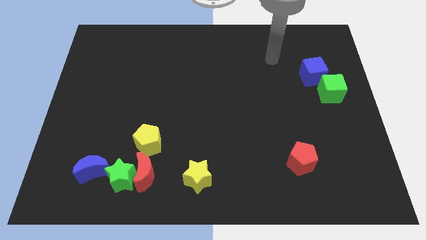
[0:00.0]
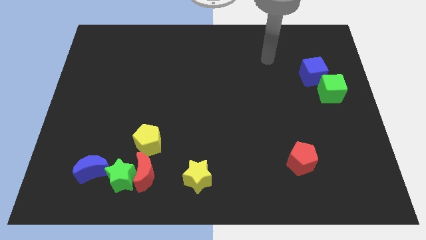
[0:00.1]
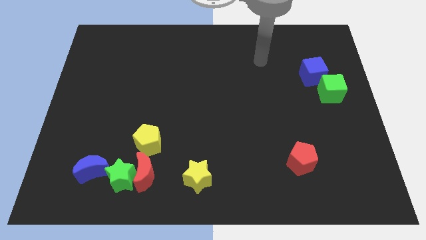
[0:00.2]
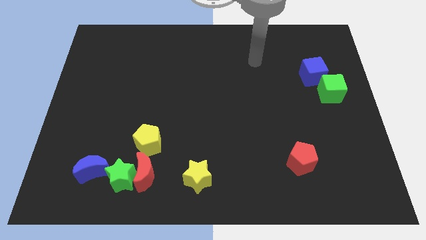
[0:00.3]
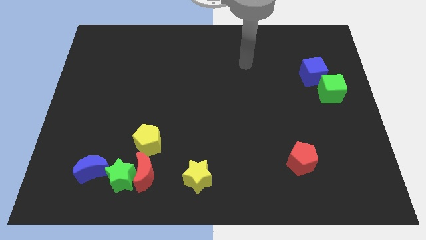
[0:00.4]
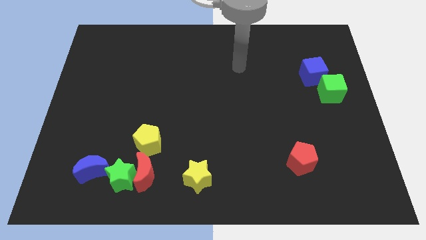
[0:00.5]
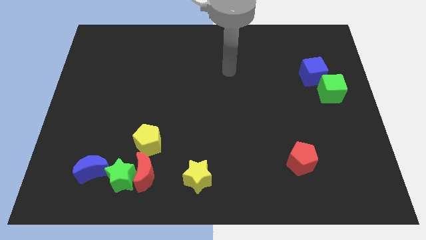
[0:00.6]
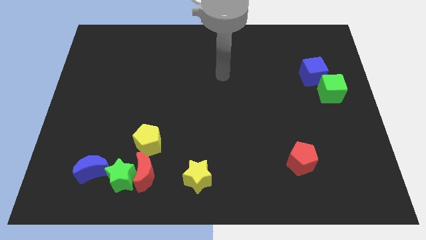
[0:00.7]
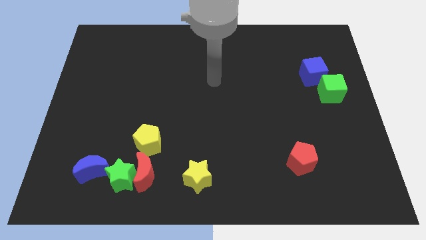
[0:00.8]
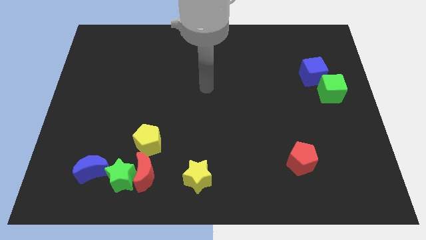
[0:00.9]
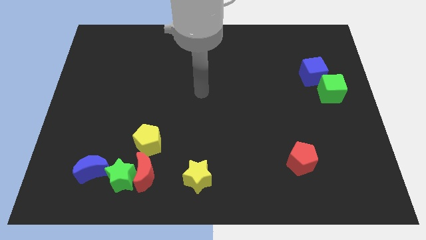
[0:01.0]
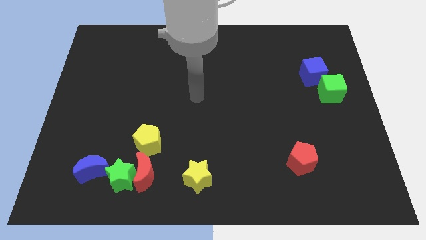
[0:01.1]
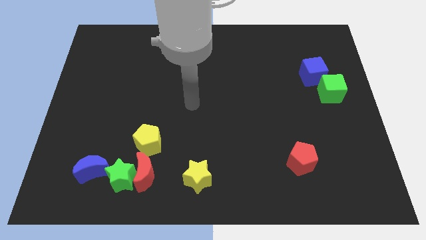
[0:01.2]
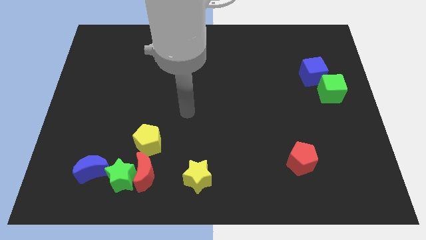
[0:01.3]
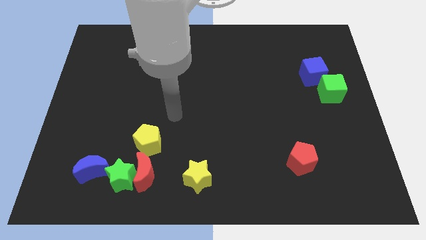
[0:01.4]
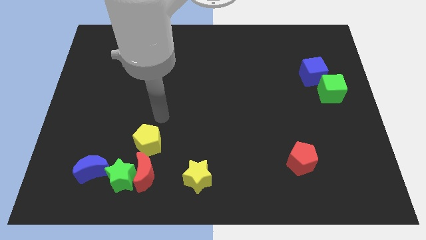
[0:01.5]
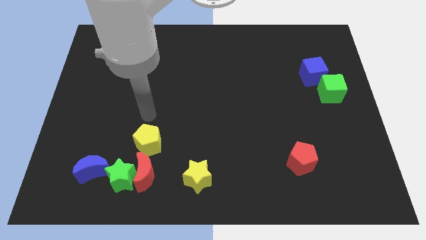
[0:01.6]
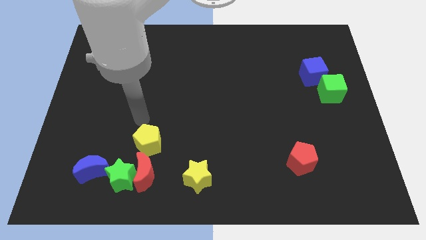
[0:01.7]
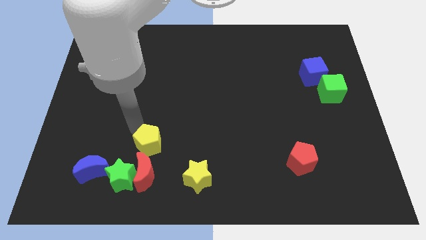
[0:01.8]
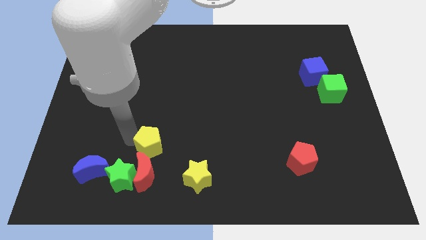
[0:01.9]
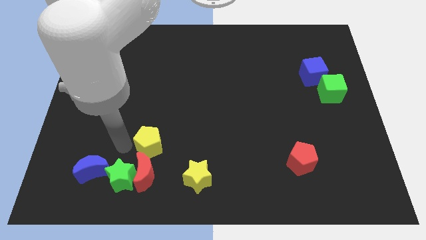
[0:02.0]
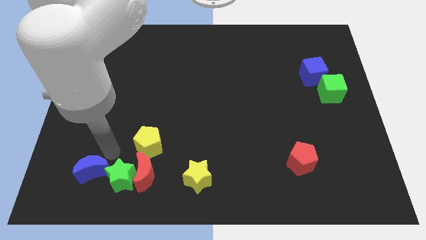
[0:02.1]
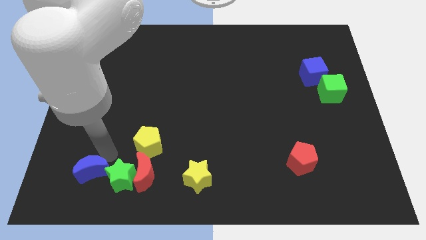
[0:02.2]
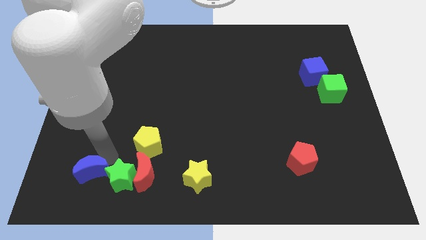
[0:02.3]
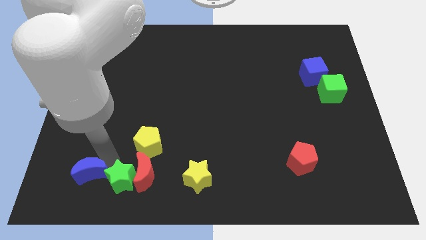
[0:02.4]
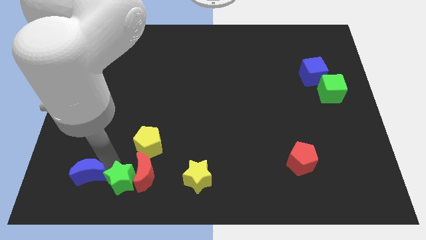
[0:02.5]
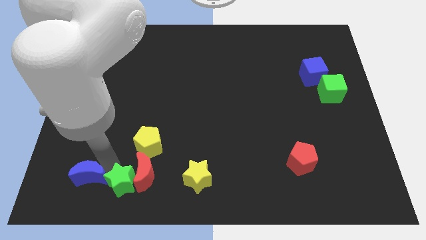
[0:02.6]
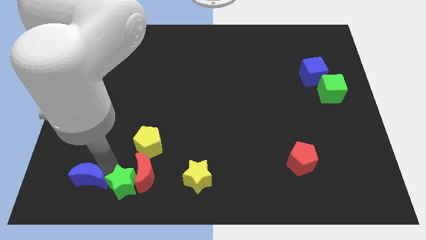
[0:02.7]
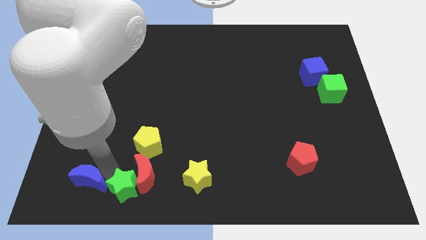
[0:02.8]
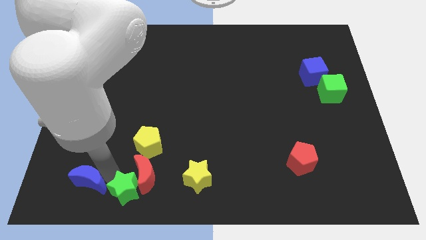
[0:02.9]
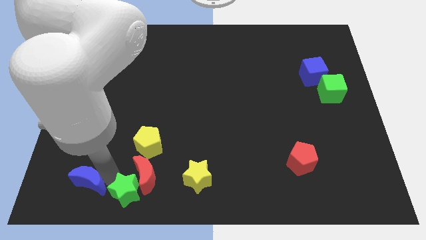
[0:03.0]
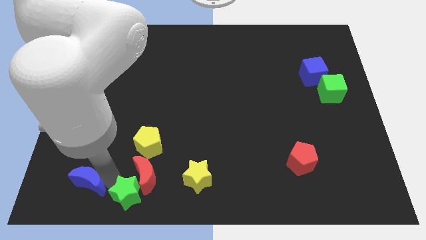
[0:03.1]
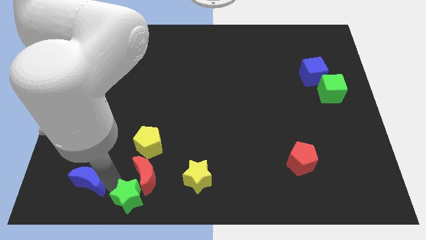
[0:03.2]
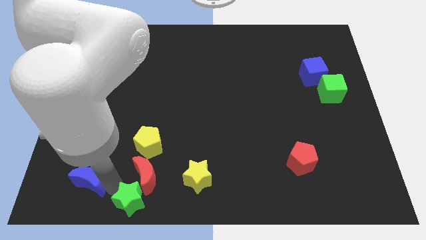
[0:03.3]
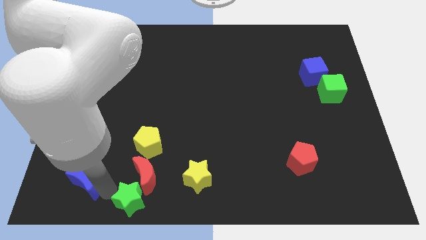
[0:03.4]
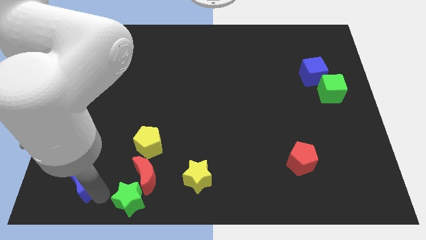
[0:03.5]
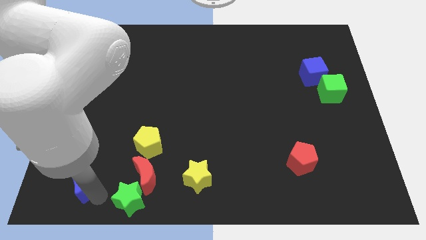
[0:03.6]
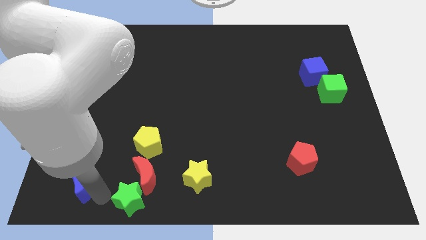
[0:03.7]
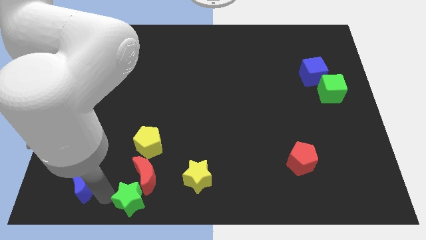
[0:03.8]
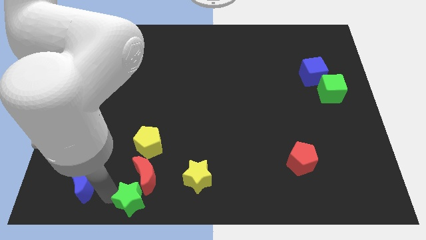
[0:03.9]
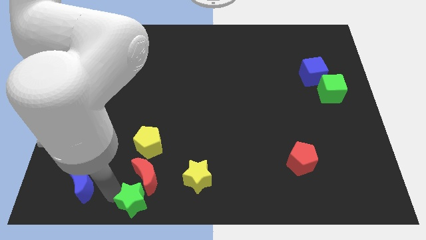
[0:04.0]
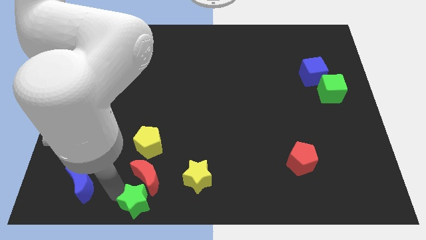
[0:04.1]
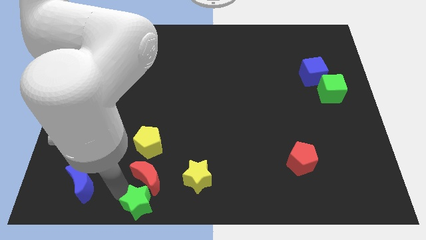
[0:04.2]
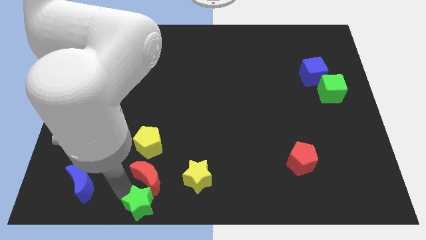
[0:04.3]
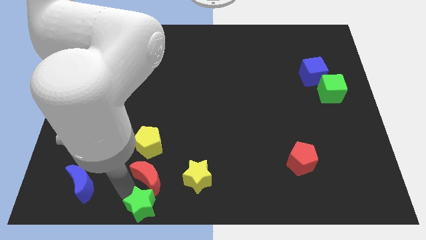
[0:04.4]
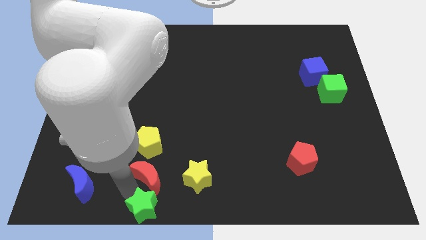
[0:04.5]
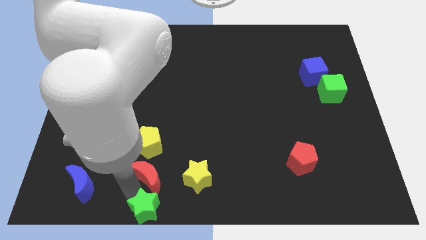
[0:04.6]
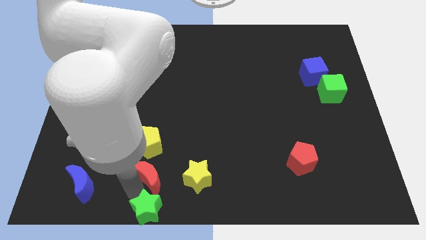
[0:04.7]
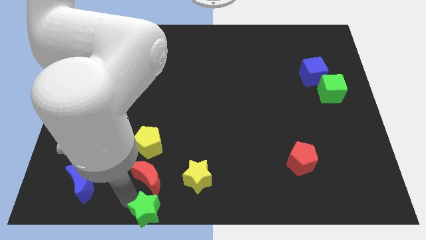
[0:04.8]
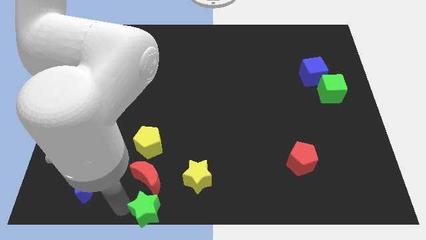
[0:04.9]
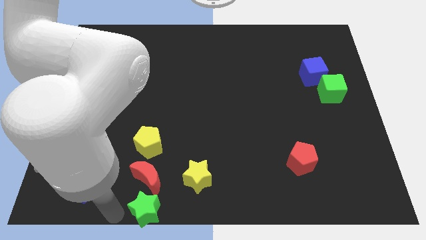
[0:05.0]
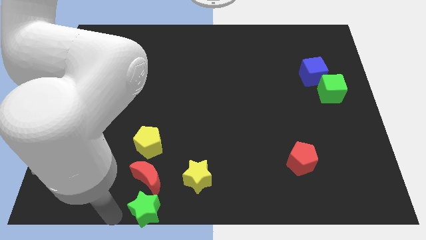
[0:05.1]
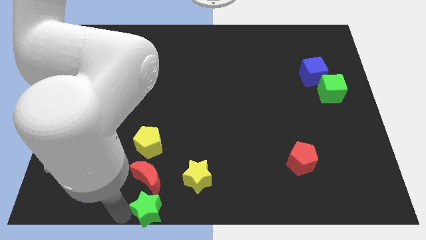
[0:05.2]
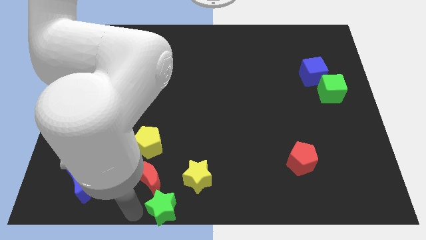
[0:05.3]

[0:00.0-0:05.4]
slide the green star right a little

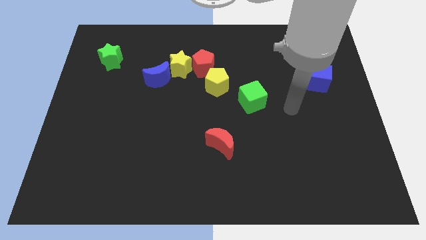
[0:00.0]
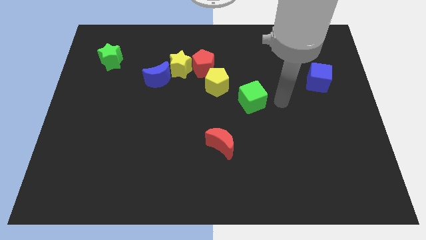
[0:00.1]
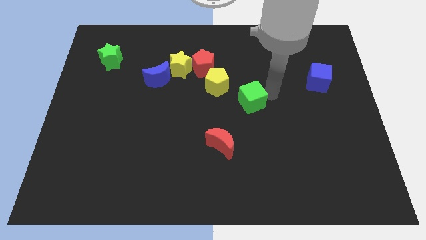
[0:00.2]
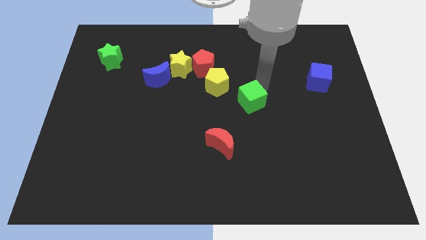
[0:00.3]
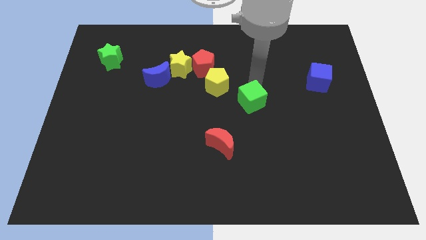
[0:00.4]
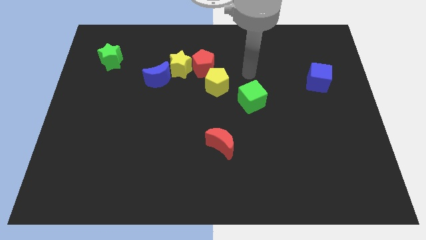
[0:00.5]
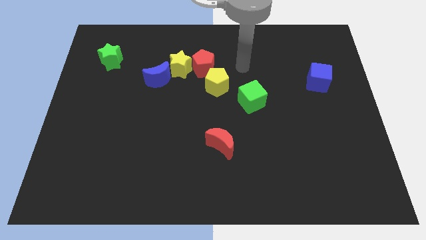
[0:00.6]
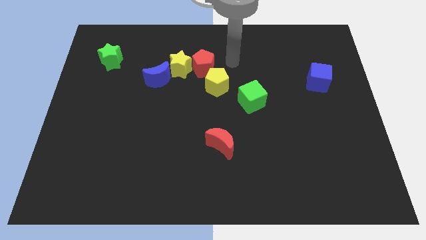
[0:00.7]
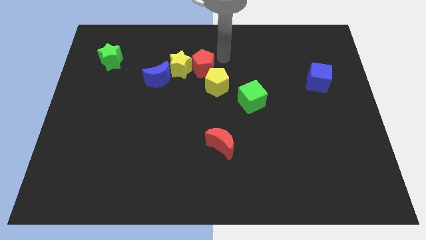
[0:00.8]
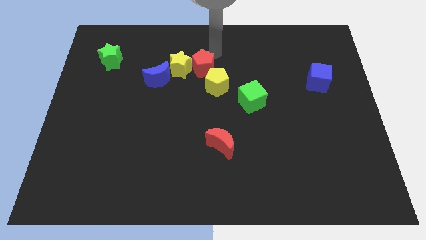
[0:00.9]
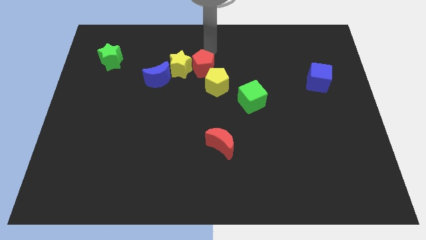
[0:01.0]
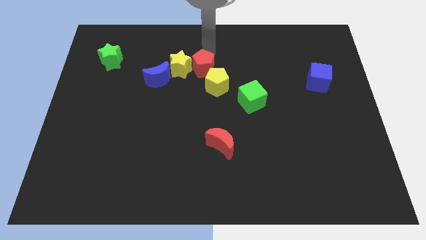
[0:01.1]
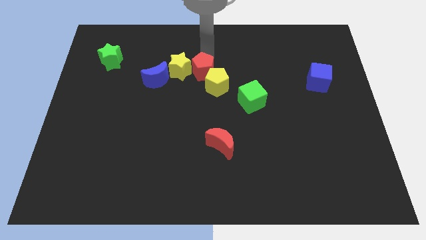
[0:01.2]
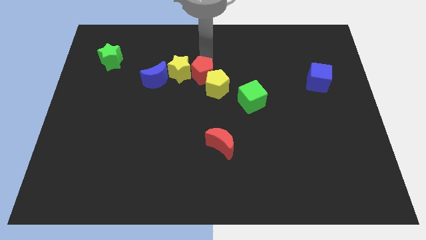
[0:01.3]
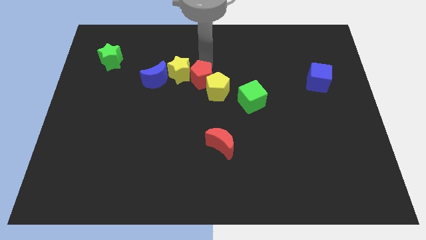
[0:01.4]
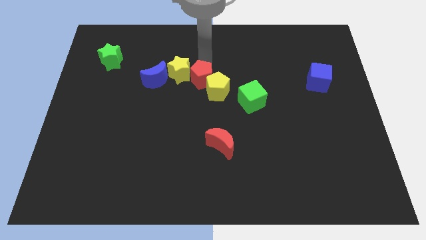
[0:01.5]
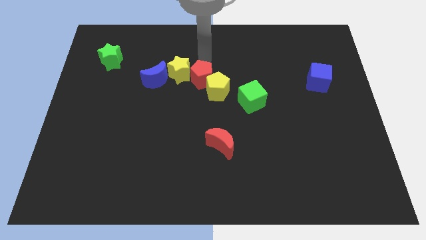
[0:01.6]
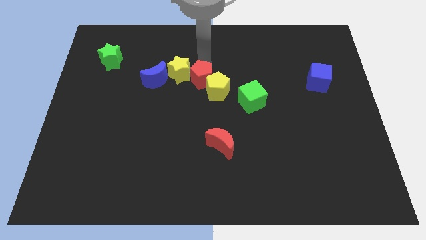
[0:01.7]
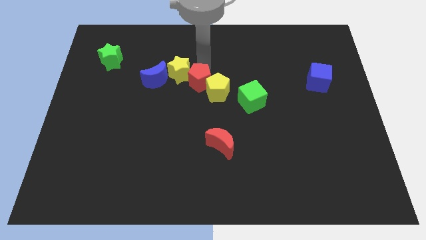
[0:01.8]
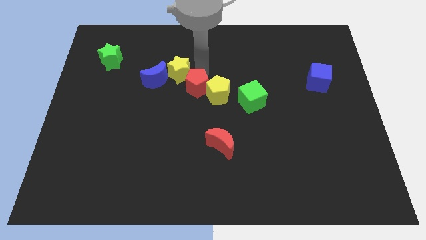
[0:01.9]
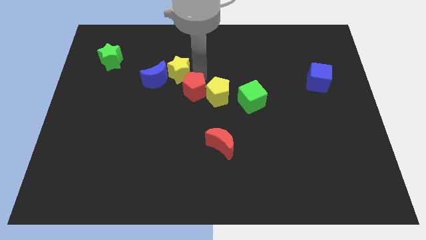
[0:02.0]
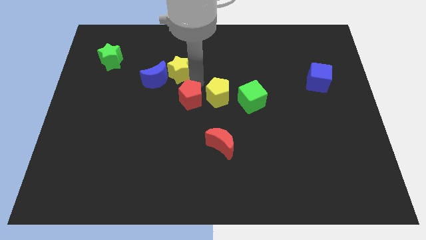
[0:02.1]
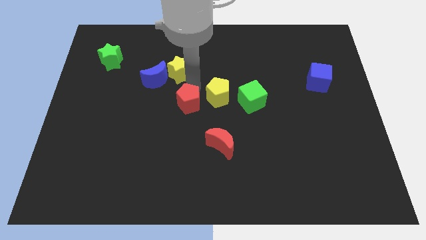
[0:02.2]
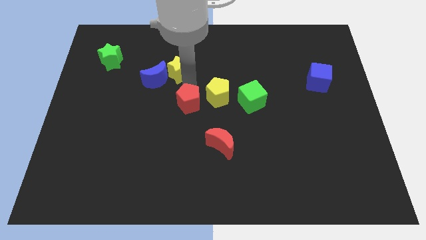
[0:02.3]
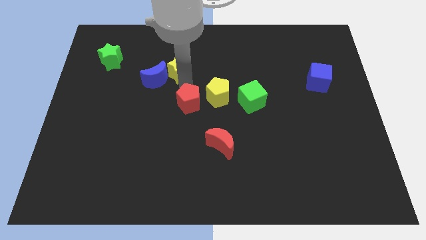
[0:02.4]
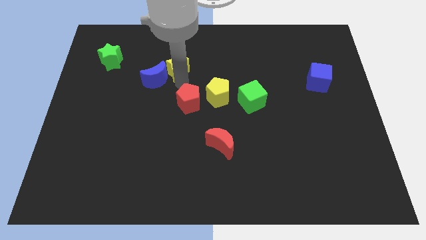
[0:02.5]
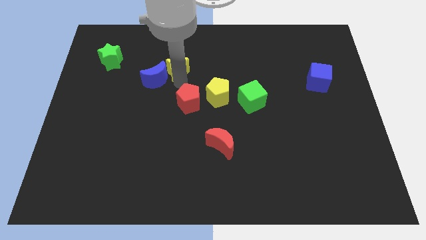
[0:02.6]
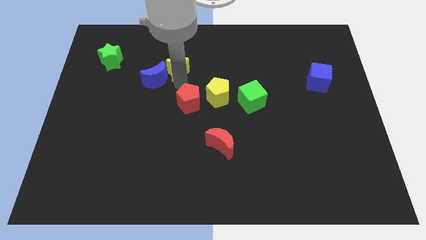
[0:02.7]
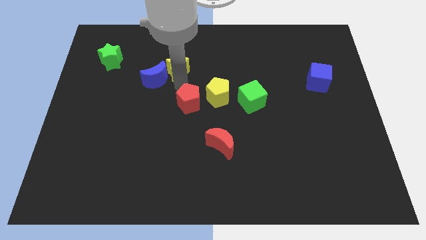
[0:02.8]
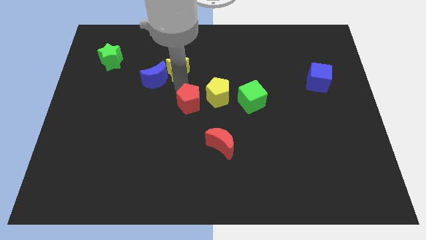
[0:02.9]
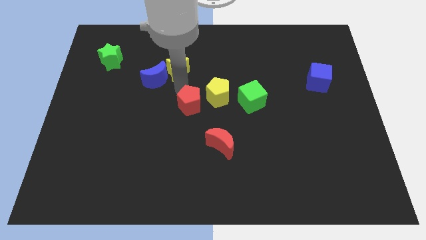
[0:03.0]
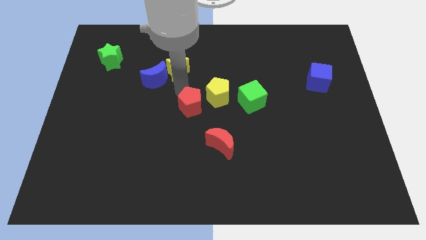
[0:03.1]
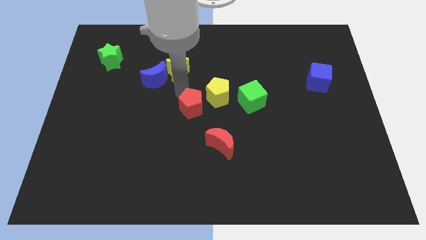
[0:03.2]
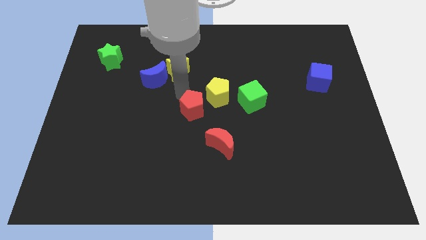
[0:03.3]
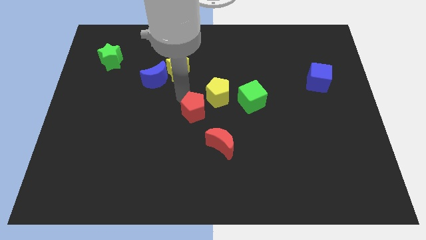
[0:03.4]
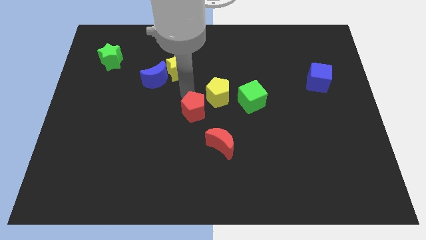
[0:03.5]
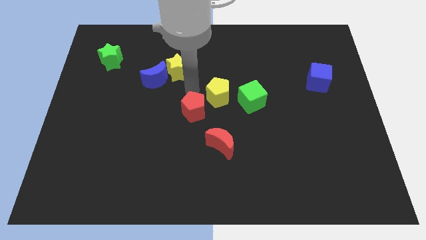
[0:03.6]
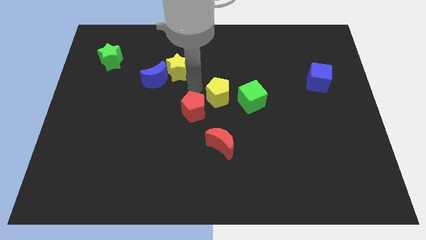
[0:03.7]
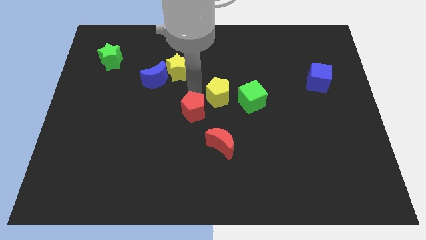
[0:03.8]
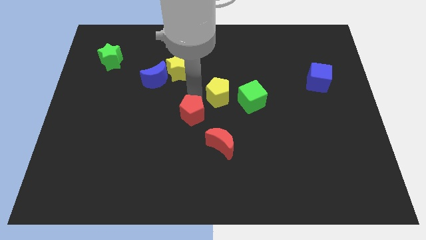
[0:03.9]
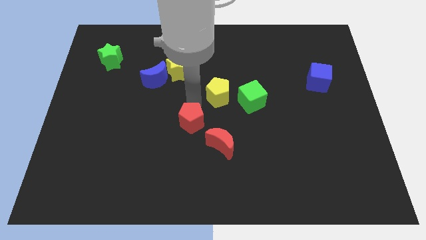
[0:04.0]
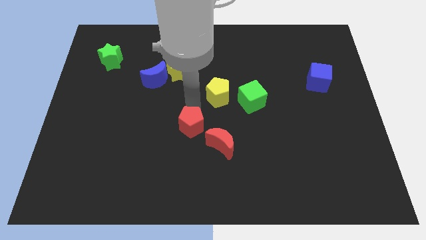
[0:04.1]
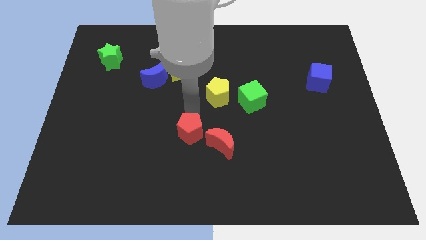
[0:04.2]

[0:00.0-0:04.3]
slide the red pentagon downwards
